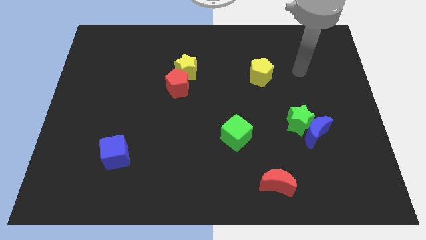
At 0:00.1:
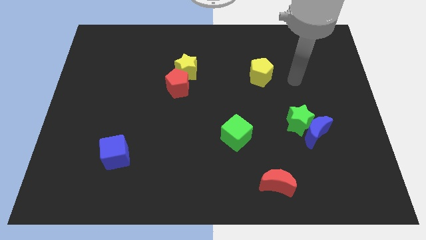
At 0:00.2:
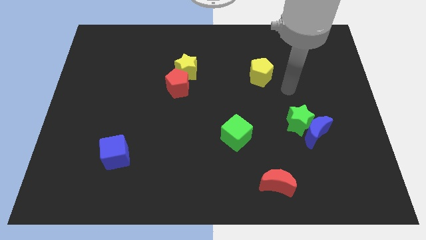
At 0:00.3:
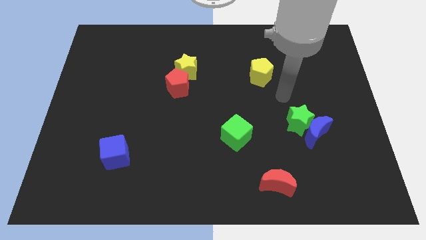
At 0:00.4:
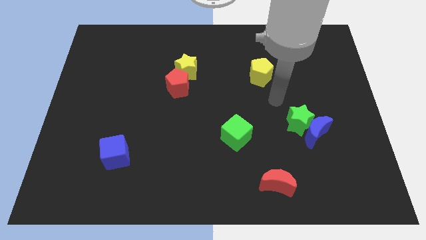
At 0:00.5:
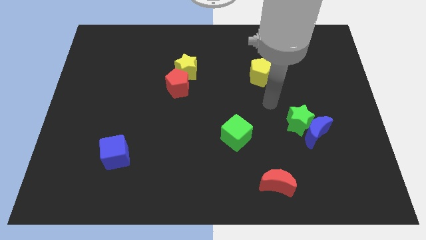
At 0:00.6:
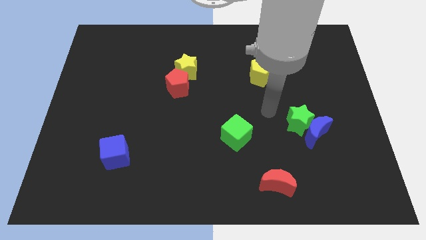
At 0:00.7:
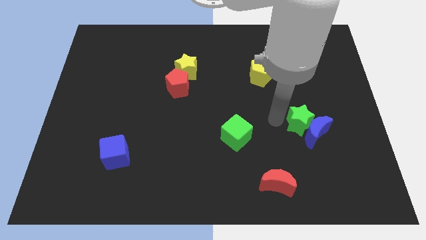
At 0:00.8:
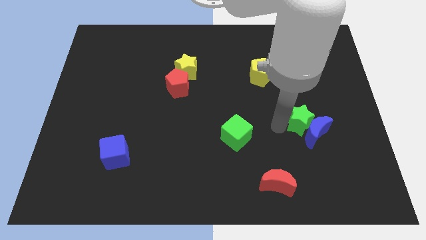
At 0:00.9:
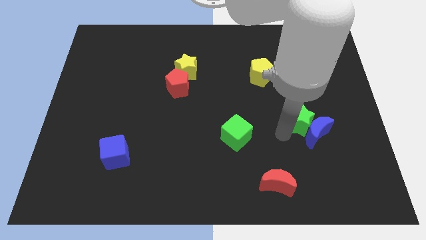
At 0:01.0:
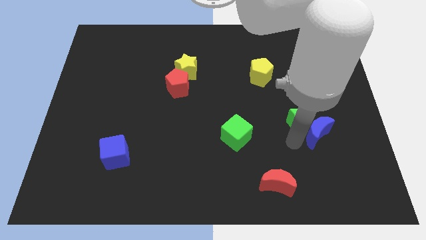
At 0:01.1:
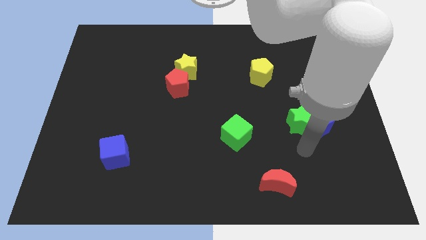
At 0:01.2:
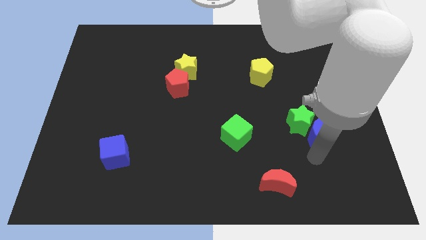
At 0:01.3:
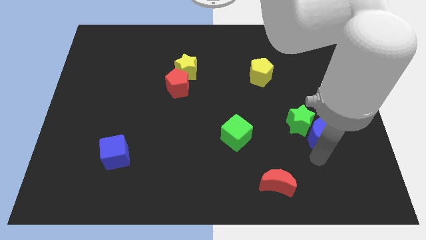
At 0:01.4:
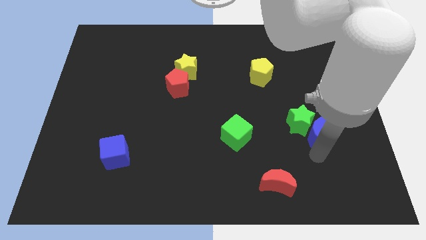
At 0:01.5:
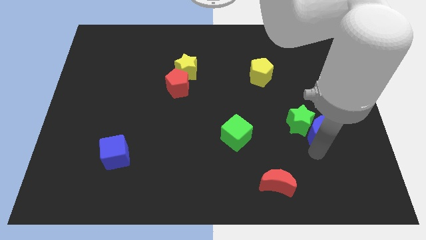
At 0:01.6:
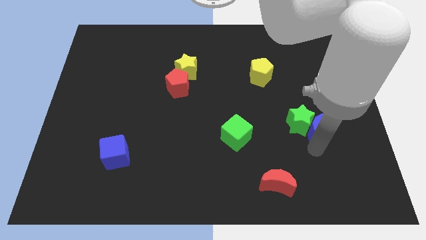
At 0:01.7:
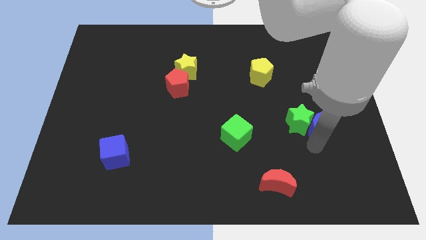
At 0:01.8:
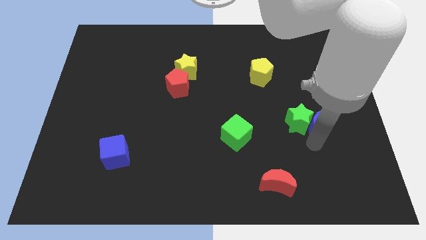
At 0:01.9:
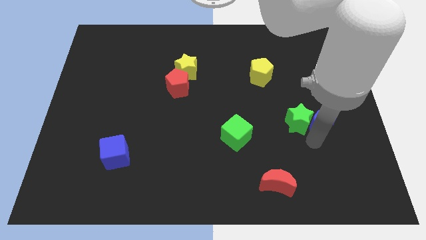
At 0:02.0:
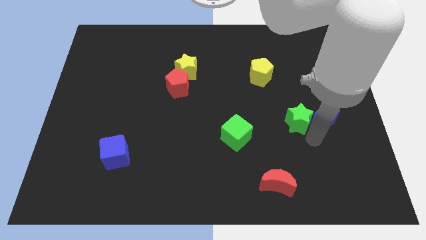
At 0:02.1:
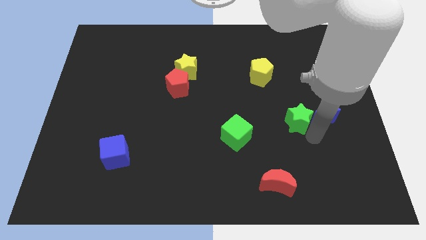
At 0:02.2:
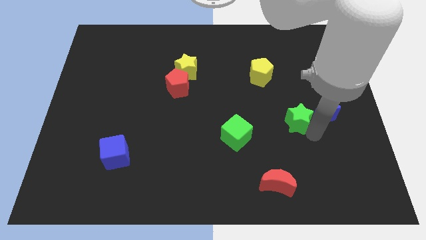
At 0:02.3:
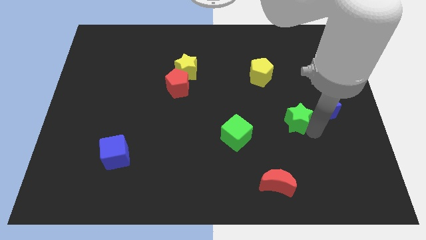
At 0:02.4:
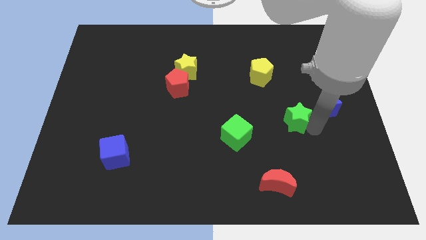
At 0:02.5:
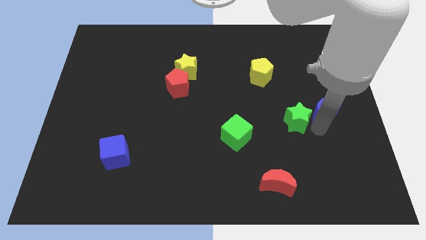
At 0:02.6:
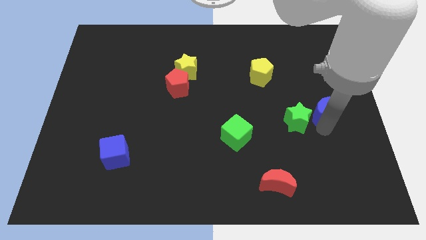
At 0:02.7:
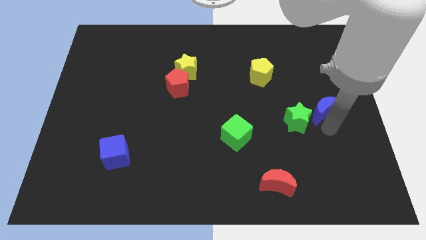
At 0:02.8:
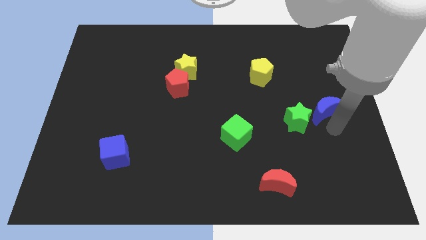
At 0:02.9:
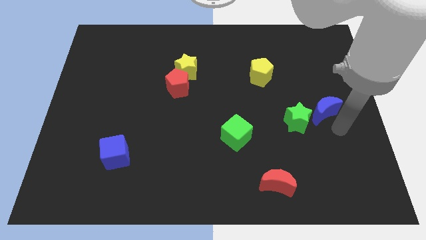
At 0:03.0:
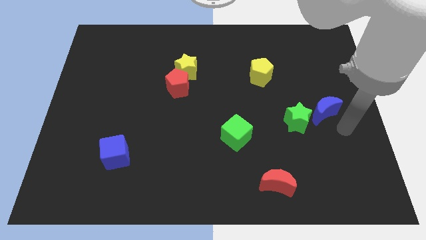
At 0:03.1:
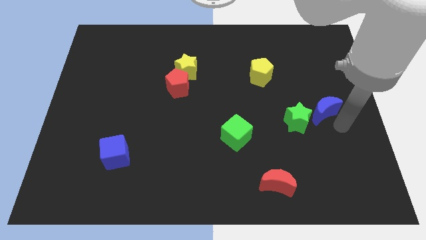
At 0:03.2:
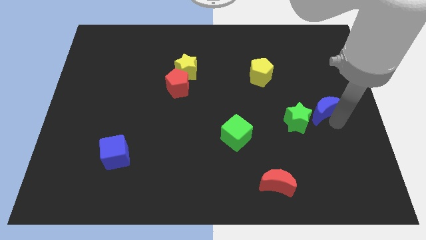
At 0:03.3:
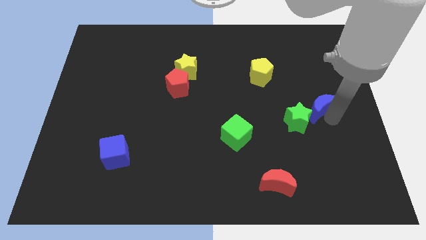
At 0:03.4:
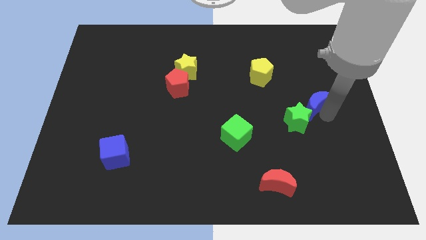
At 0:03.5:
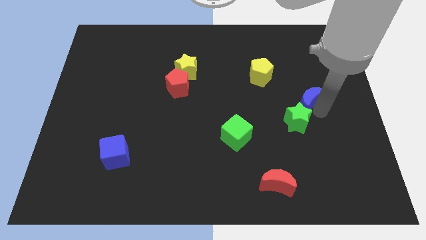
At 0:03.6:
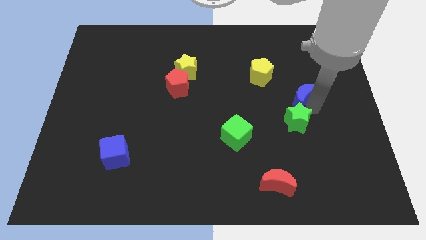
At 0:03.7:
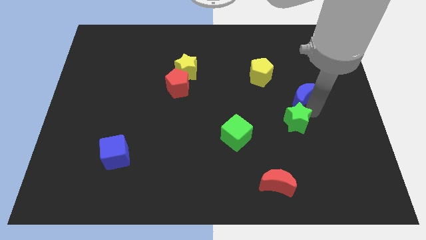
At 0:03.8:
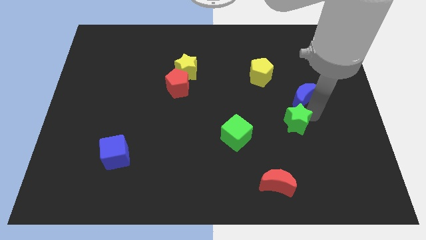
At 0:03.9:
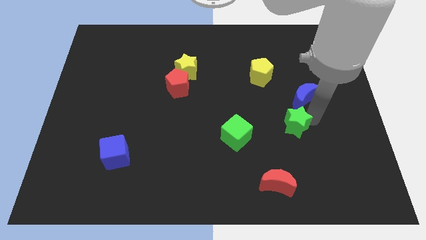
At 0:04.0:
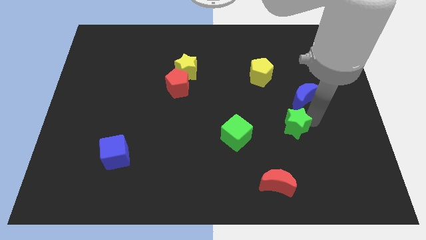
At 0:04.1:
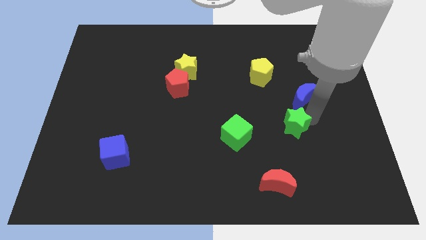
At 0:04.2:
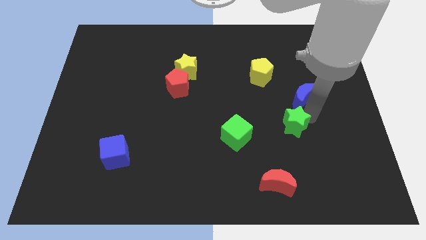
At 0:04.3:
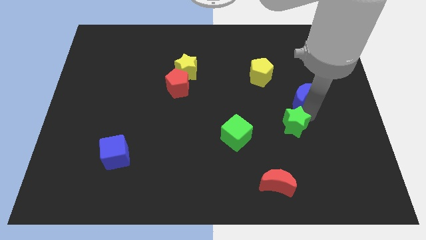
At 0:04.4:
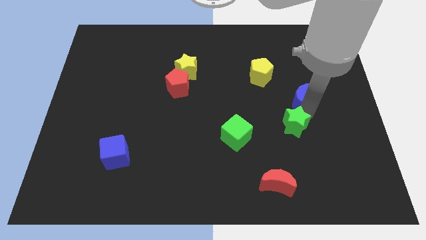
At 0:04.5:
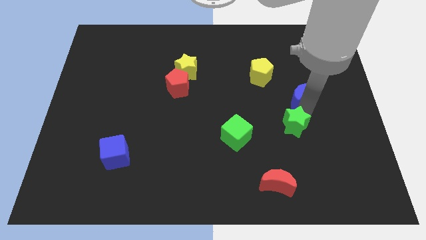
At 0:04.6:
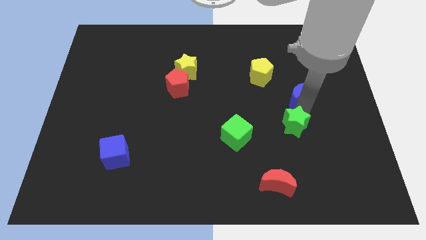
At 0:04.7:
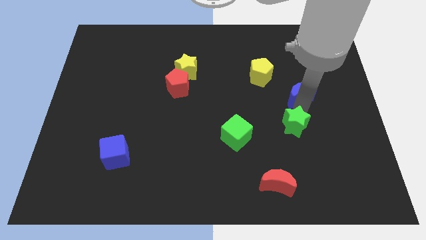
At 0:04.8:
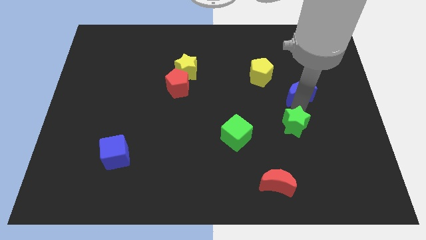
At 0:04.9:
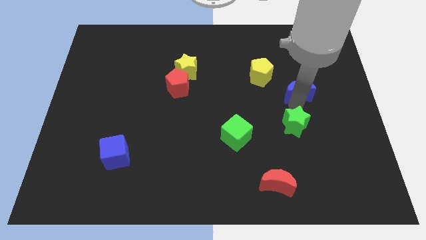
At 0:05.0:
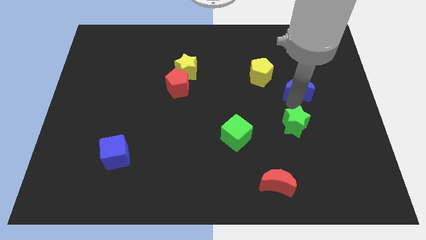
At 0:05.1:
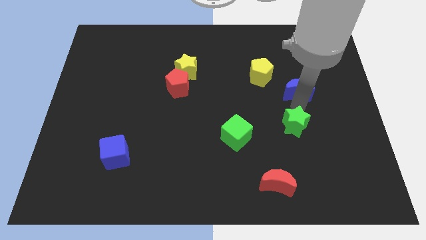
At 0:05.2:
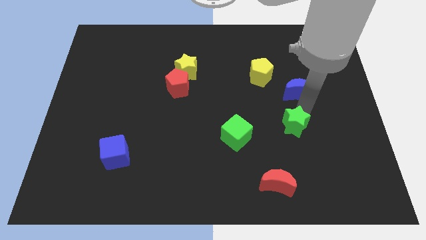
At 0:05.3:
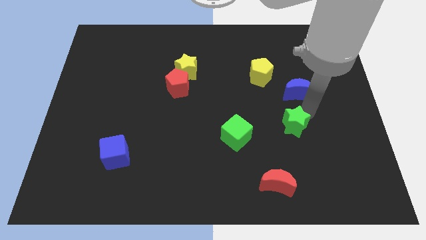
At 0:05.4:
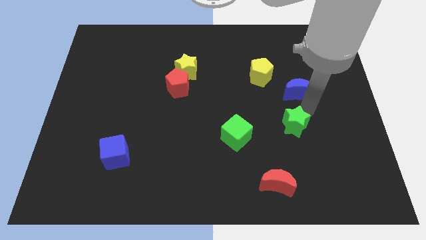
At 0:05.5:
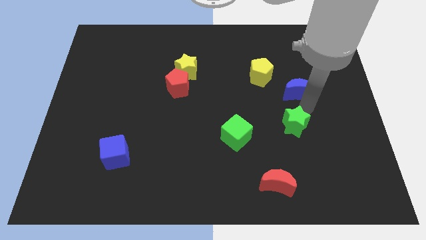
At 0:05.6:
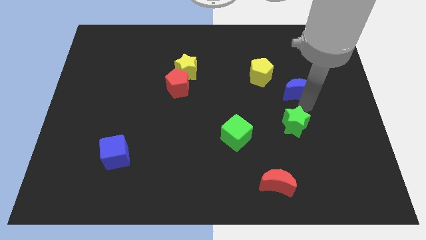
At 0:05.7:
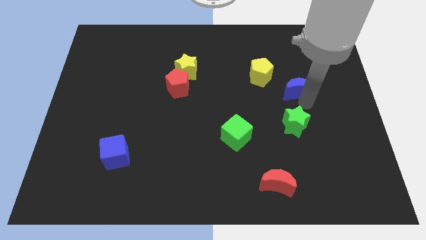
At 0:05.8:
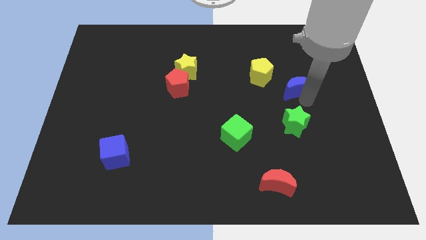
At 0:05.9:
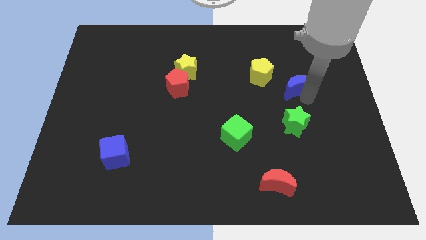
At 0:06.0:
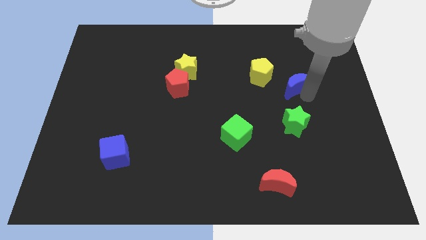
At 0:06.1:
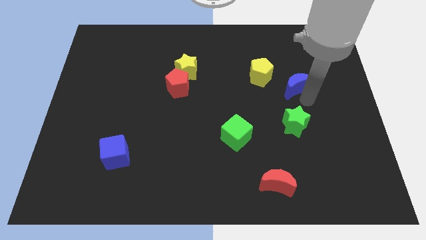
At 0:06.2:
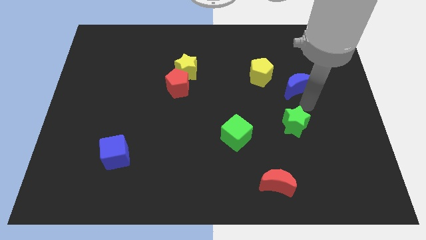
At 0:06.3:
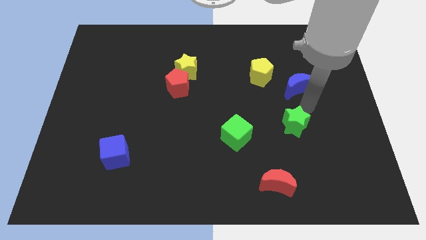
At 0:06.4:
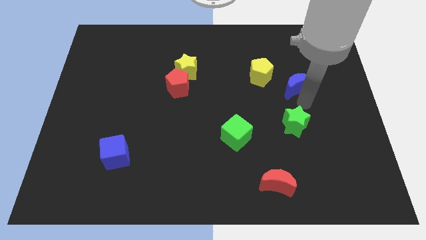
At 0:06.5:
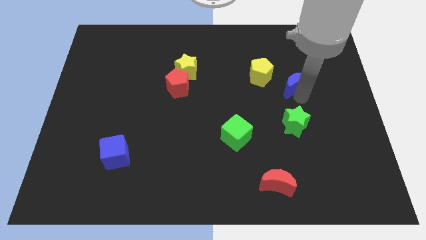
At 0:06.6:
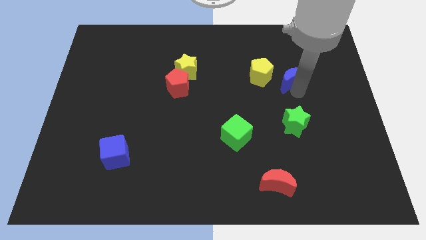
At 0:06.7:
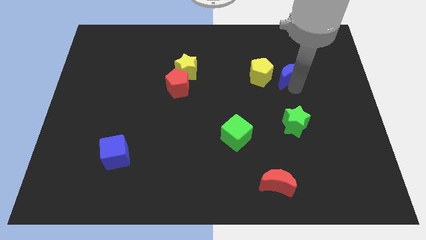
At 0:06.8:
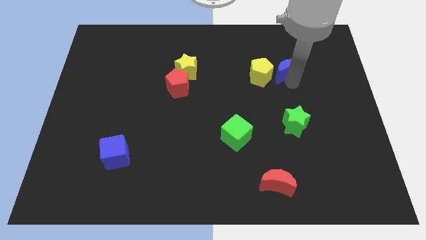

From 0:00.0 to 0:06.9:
move the blue moon to the top right side of the yellow pentagon
